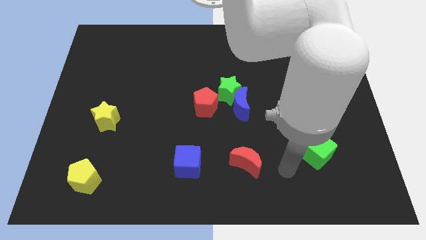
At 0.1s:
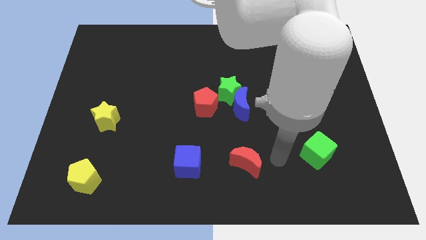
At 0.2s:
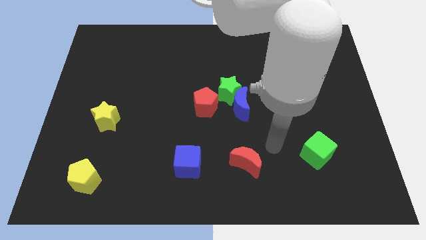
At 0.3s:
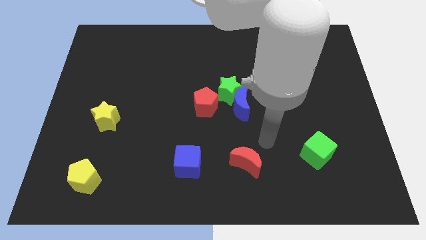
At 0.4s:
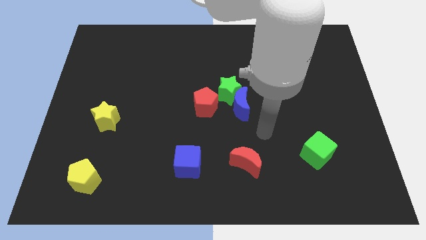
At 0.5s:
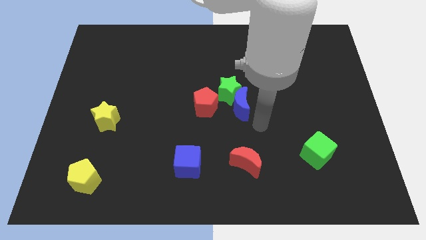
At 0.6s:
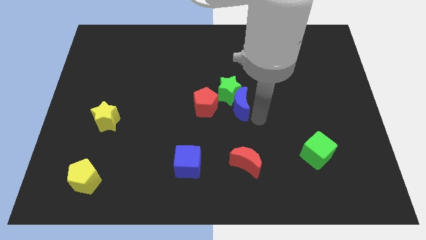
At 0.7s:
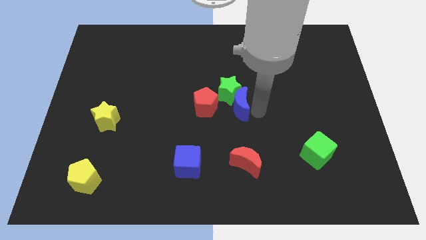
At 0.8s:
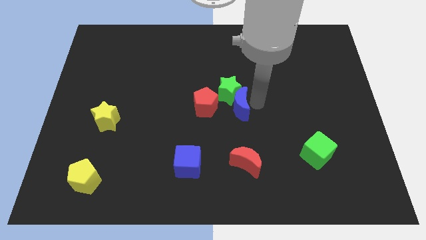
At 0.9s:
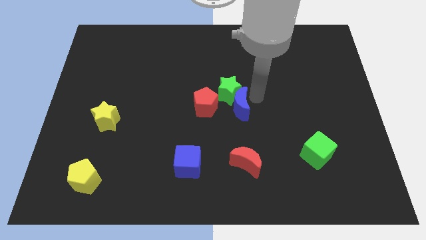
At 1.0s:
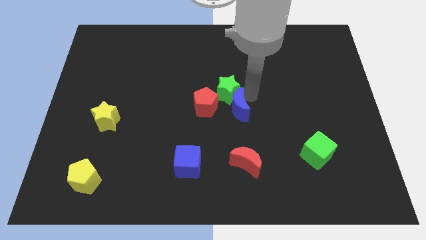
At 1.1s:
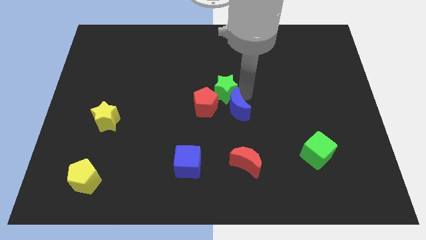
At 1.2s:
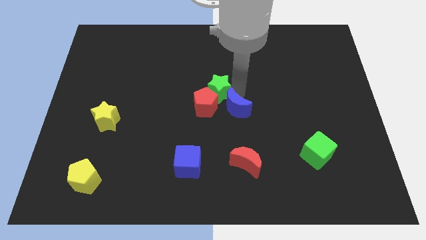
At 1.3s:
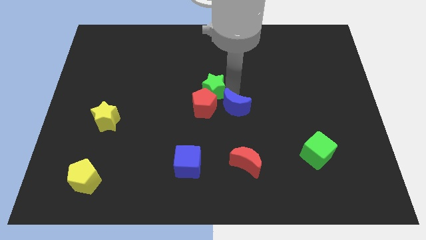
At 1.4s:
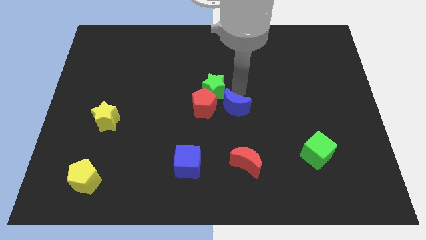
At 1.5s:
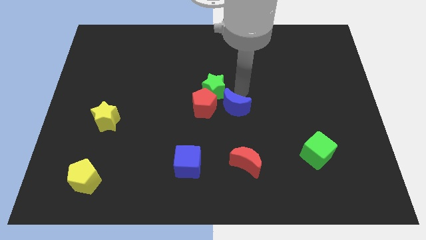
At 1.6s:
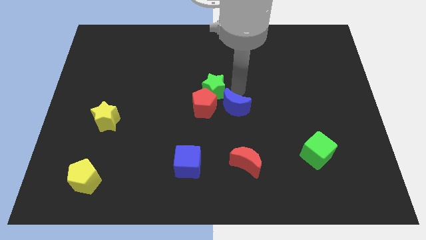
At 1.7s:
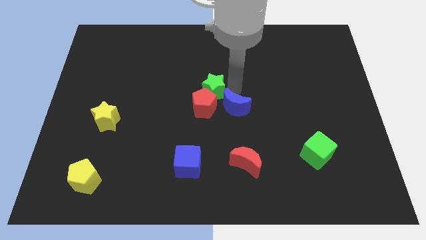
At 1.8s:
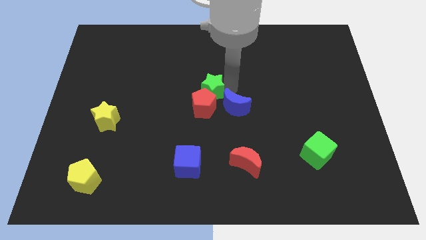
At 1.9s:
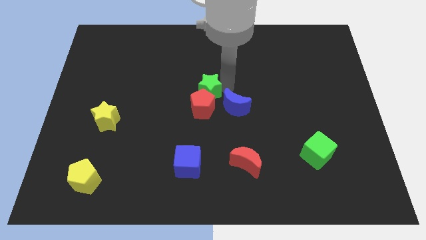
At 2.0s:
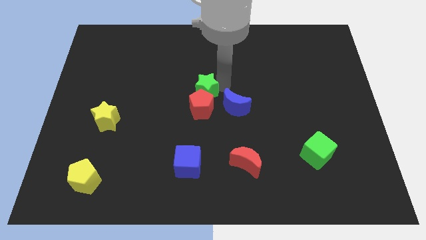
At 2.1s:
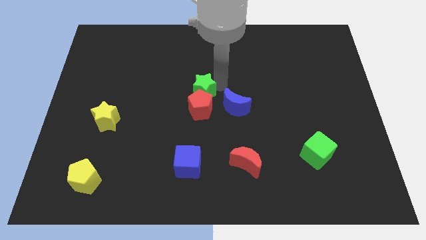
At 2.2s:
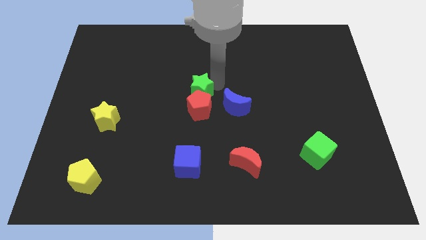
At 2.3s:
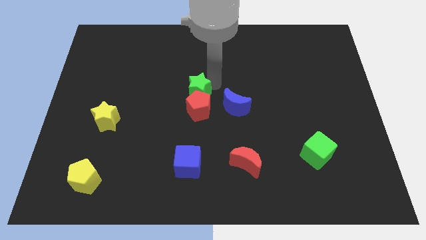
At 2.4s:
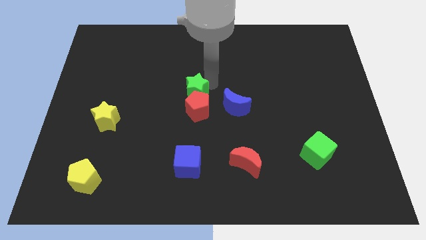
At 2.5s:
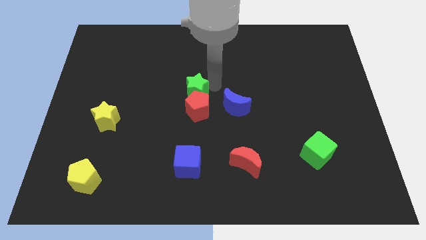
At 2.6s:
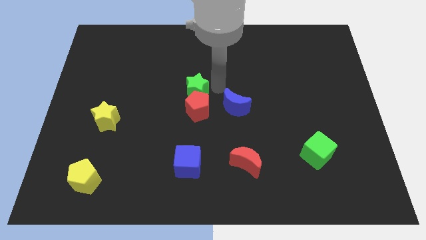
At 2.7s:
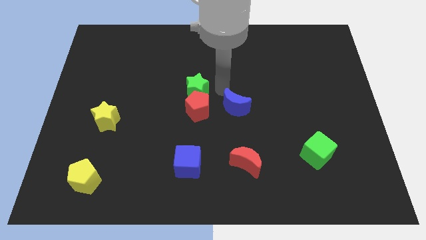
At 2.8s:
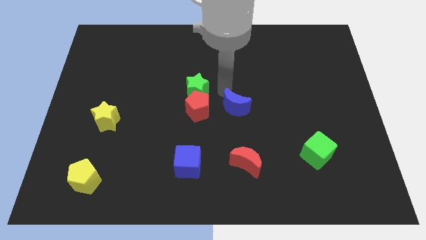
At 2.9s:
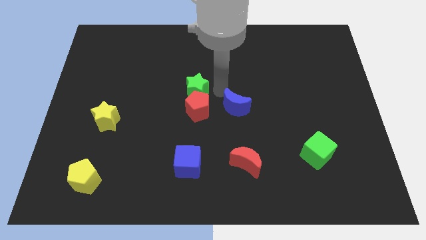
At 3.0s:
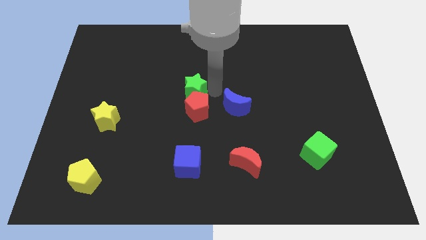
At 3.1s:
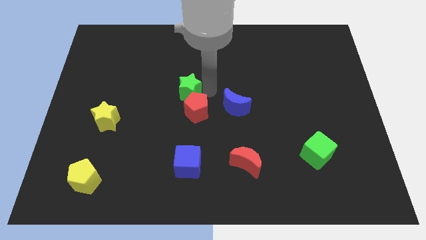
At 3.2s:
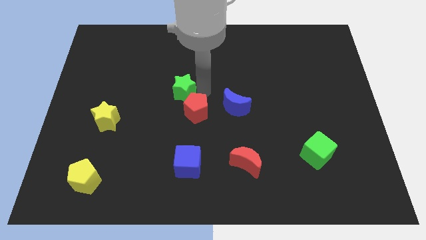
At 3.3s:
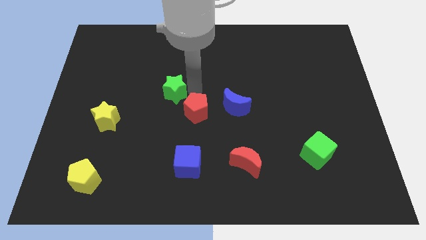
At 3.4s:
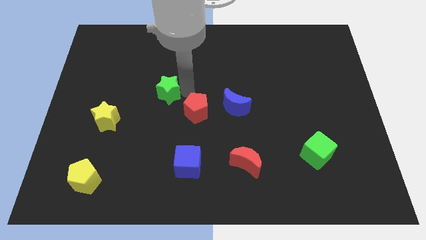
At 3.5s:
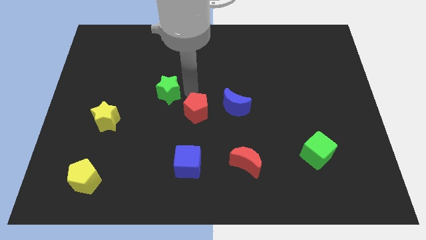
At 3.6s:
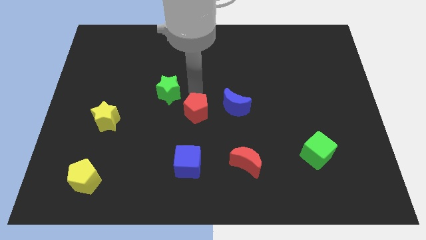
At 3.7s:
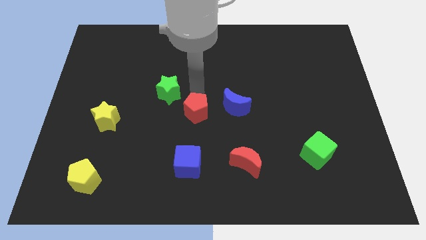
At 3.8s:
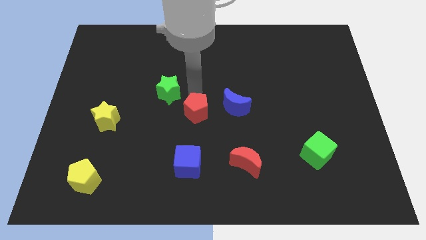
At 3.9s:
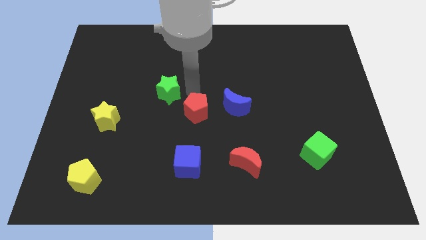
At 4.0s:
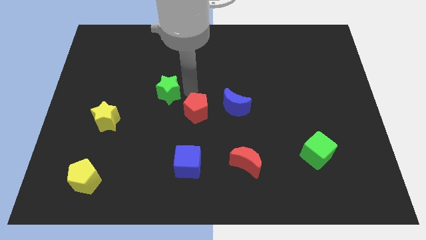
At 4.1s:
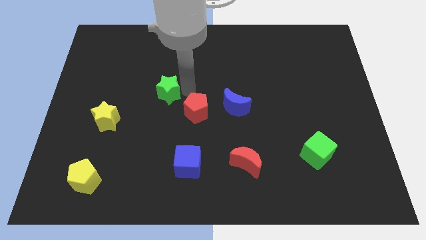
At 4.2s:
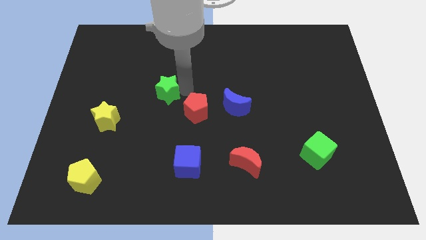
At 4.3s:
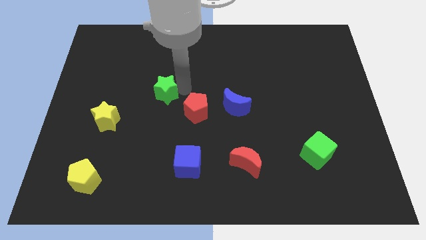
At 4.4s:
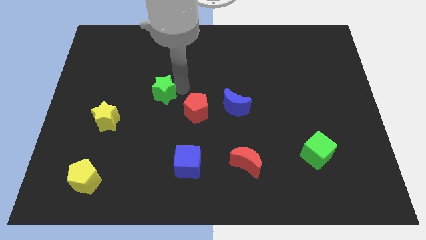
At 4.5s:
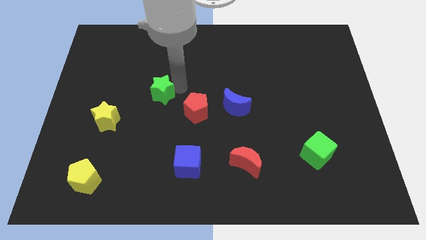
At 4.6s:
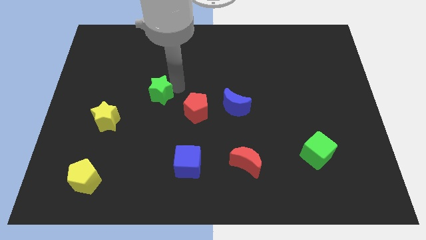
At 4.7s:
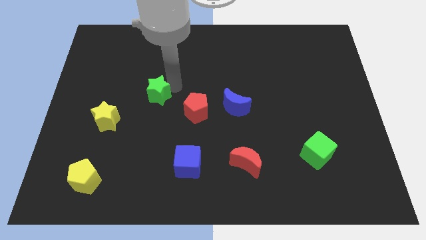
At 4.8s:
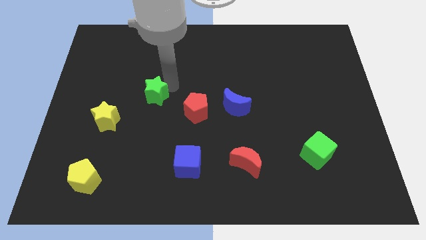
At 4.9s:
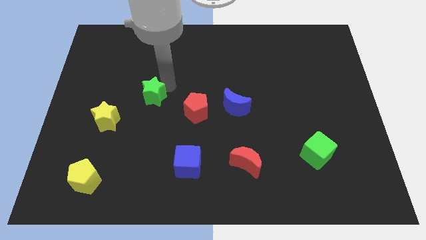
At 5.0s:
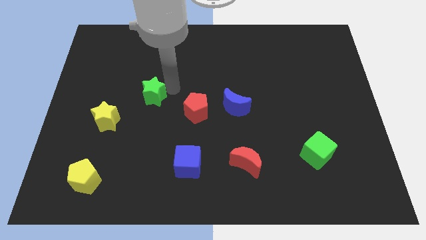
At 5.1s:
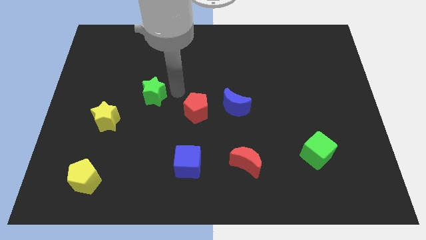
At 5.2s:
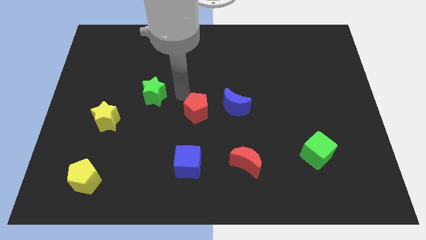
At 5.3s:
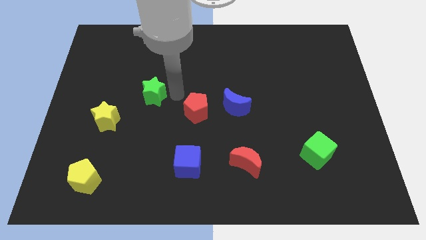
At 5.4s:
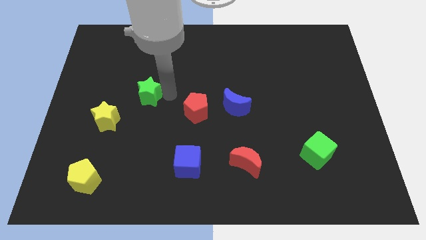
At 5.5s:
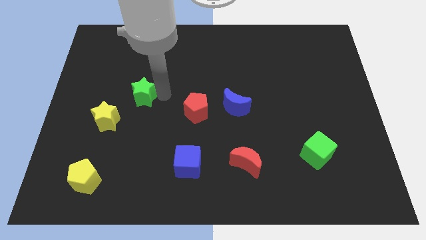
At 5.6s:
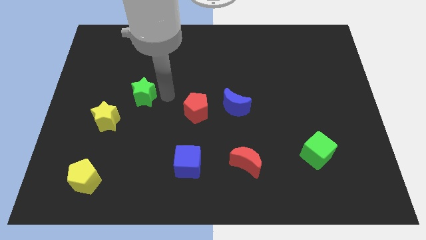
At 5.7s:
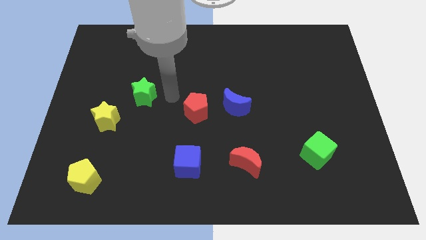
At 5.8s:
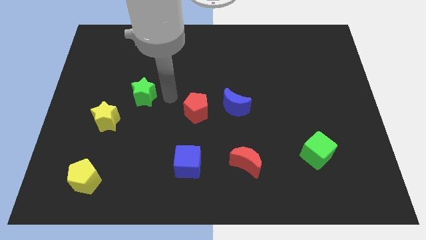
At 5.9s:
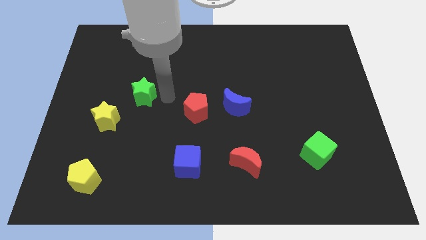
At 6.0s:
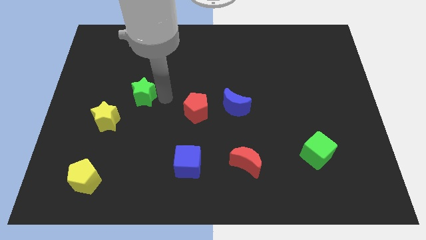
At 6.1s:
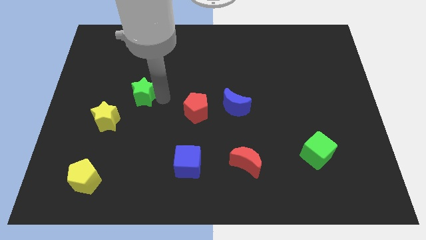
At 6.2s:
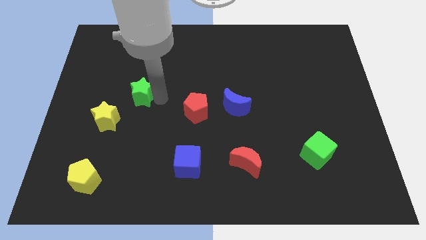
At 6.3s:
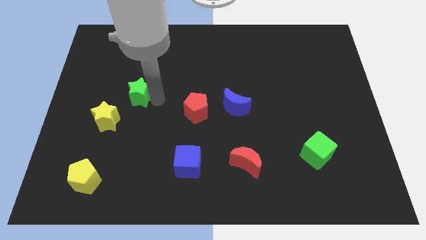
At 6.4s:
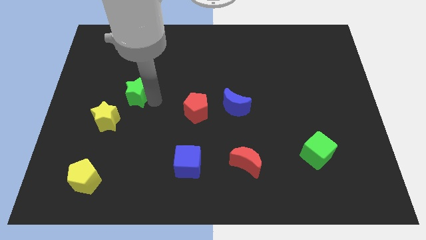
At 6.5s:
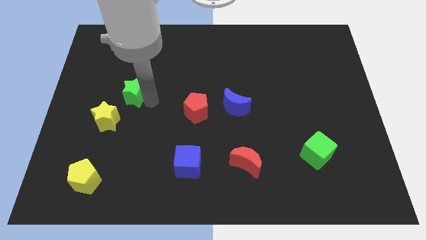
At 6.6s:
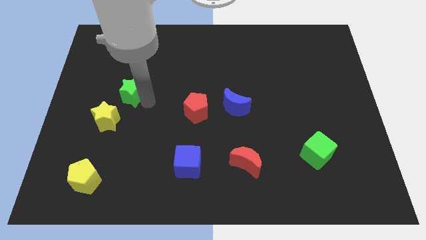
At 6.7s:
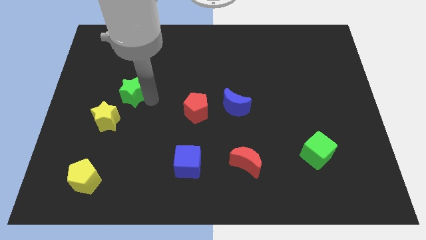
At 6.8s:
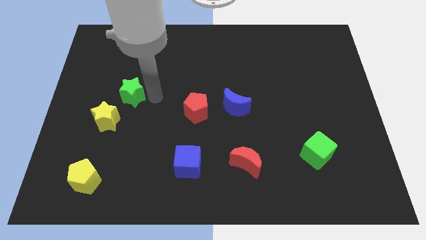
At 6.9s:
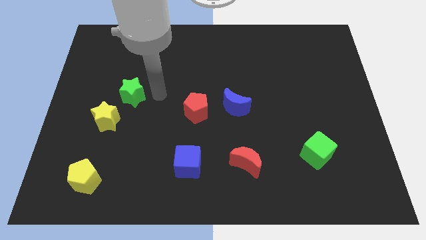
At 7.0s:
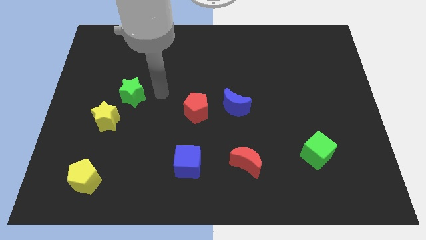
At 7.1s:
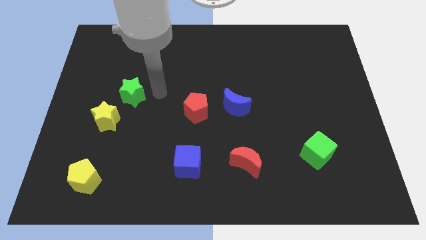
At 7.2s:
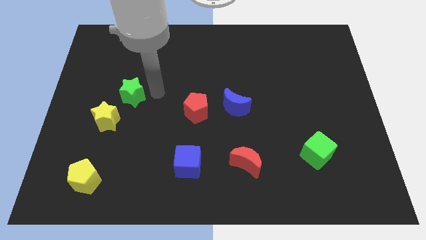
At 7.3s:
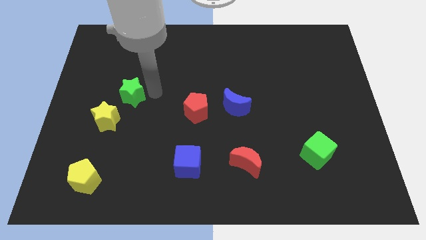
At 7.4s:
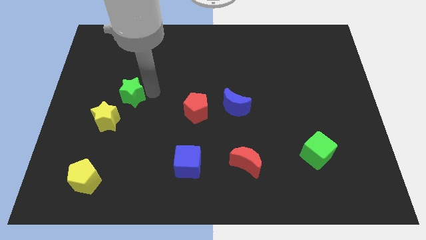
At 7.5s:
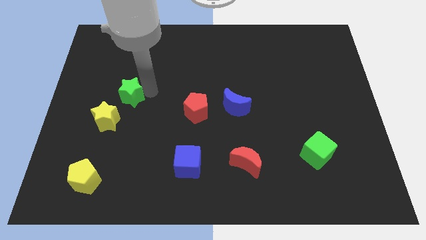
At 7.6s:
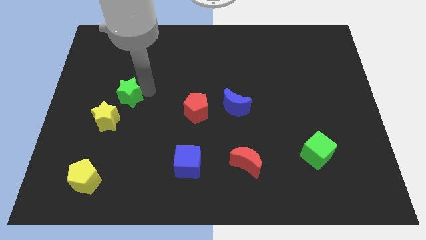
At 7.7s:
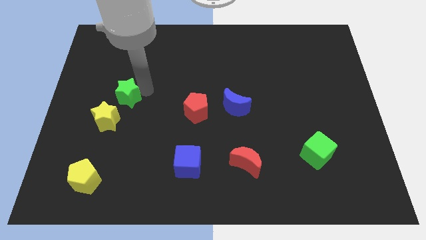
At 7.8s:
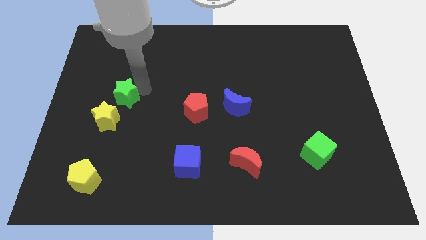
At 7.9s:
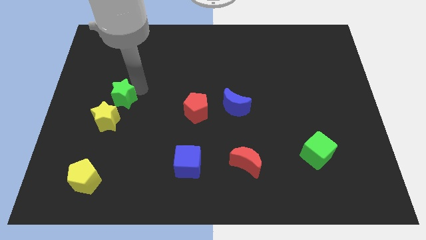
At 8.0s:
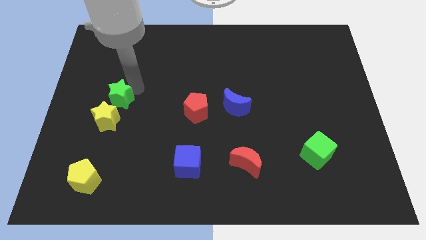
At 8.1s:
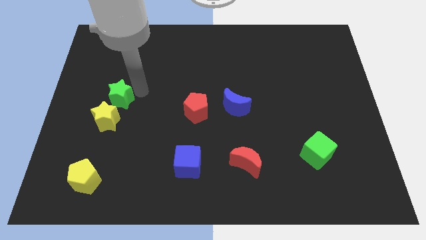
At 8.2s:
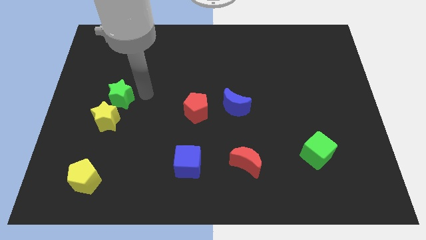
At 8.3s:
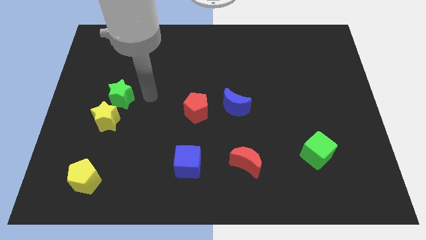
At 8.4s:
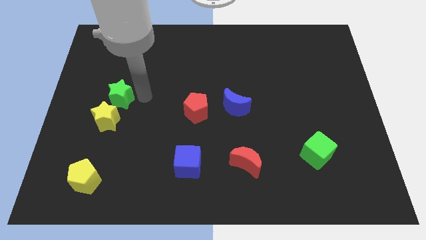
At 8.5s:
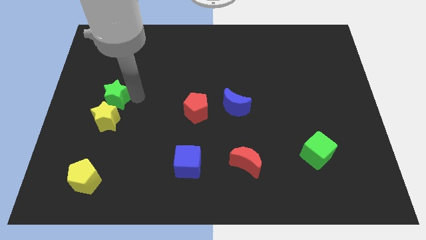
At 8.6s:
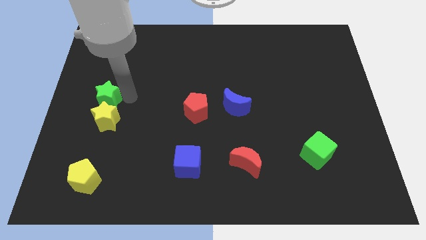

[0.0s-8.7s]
slide the green star to the left side
